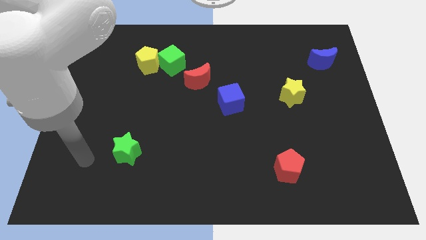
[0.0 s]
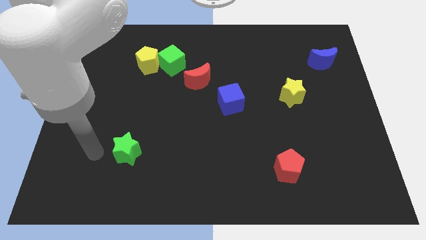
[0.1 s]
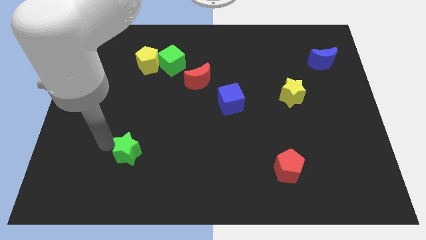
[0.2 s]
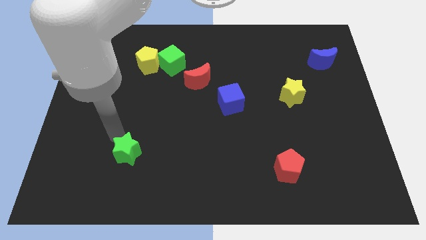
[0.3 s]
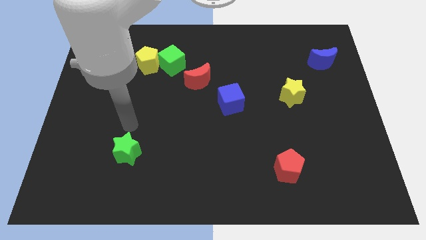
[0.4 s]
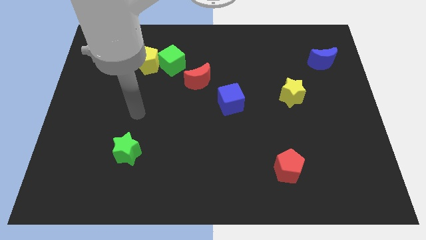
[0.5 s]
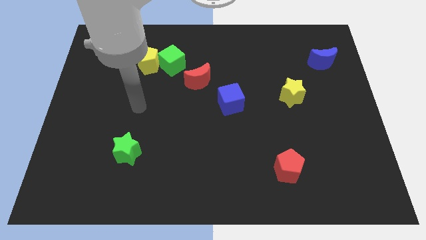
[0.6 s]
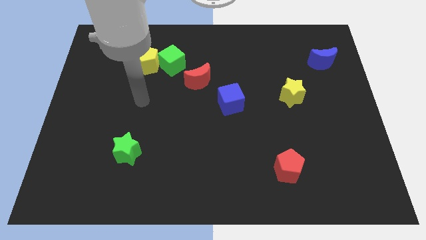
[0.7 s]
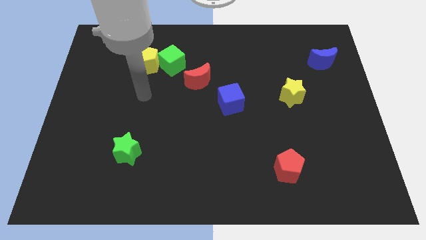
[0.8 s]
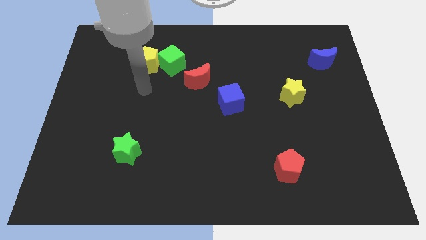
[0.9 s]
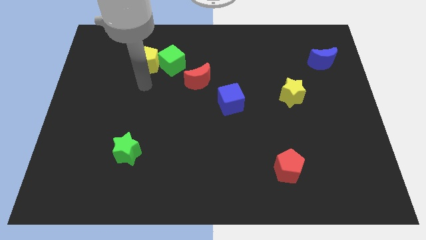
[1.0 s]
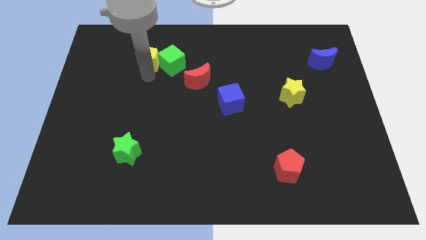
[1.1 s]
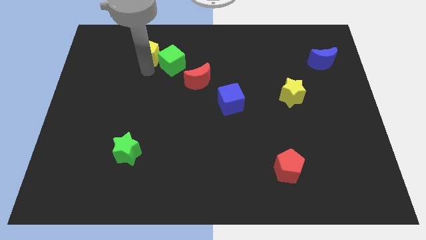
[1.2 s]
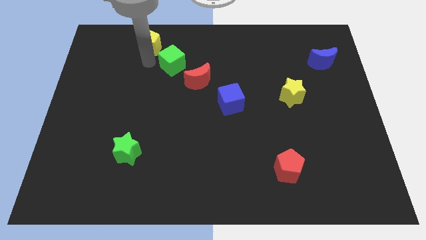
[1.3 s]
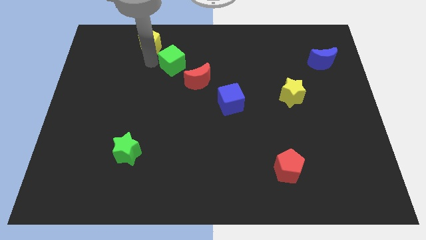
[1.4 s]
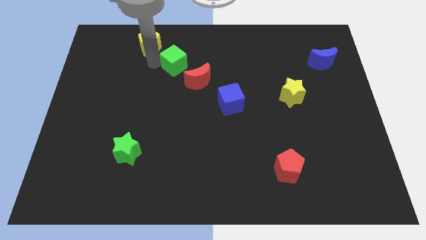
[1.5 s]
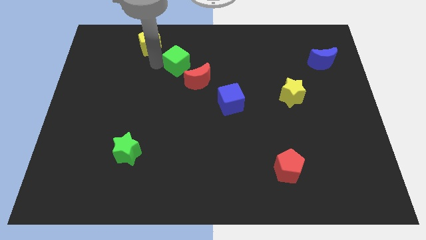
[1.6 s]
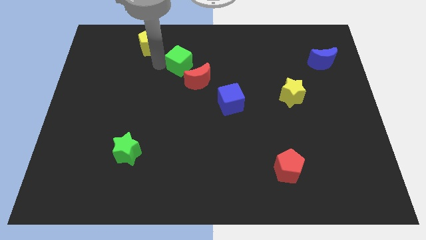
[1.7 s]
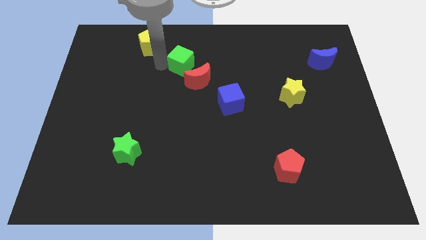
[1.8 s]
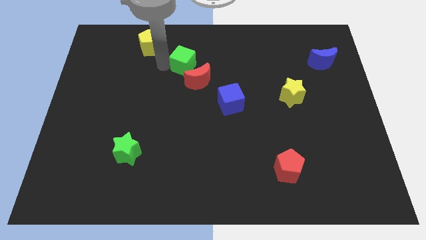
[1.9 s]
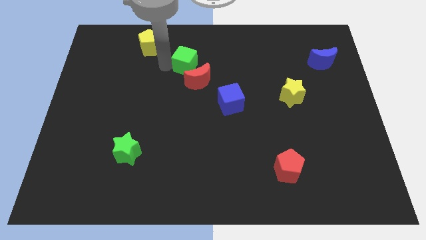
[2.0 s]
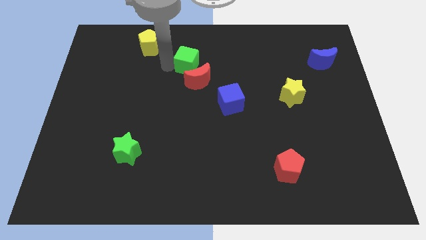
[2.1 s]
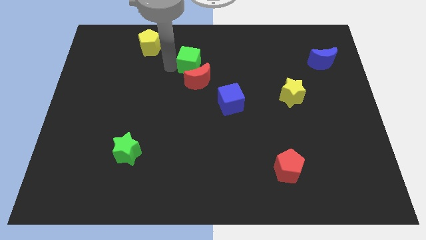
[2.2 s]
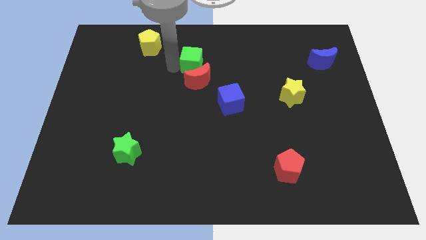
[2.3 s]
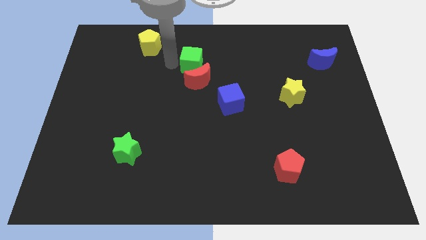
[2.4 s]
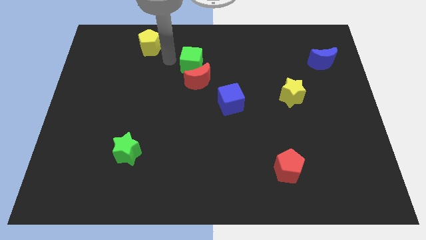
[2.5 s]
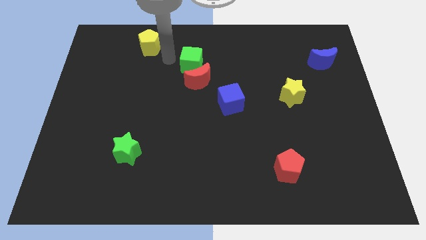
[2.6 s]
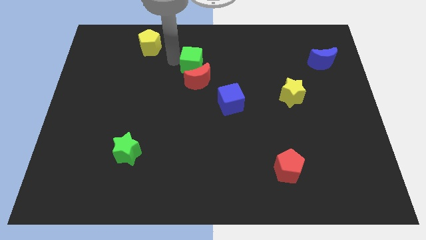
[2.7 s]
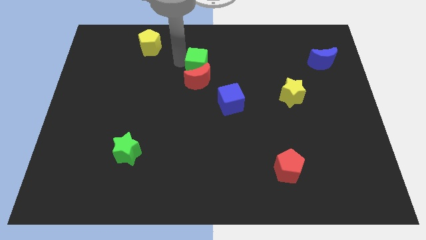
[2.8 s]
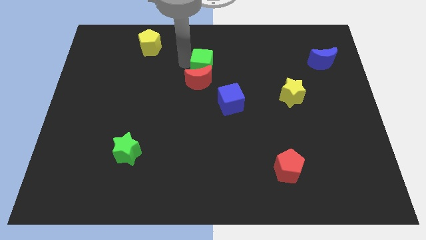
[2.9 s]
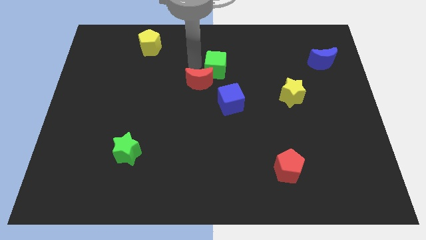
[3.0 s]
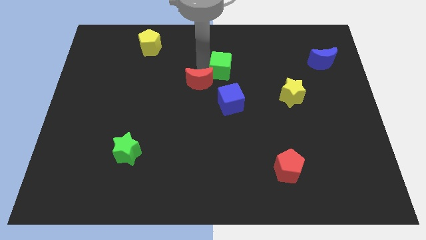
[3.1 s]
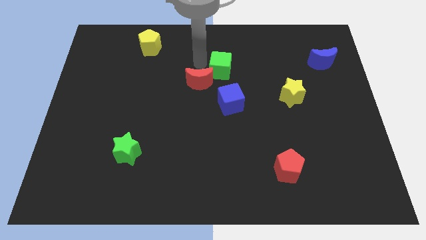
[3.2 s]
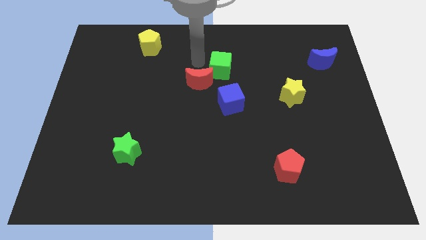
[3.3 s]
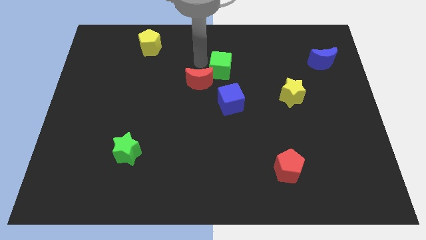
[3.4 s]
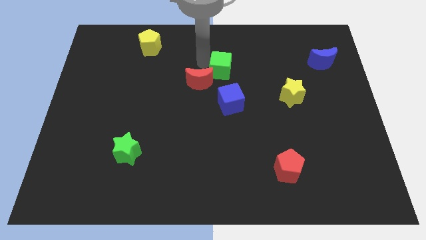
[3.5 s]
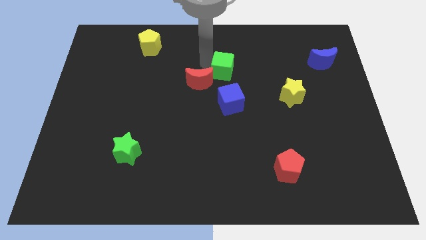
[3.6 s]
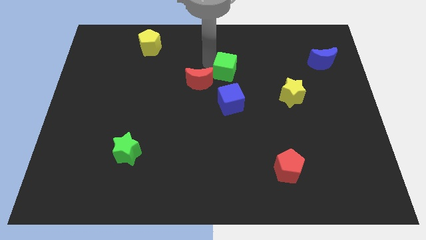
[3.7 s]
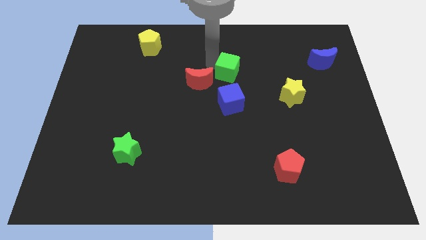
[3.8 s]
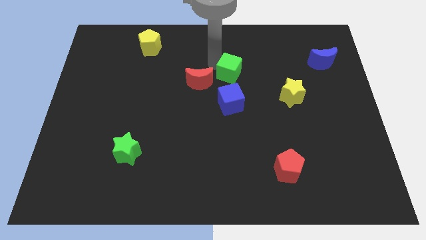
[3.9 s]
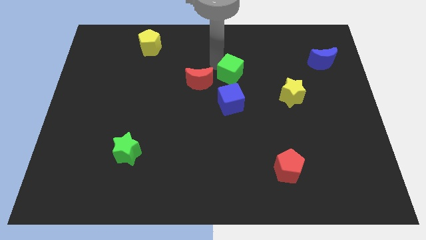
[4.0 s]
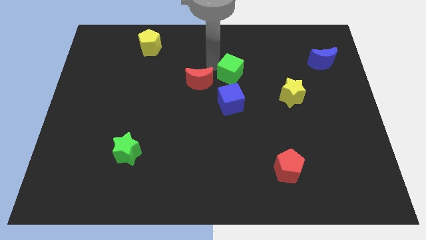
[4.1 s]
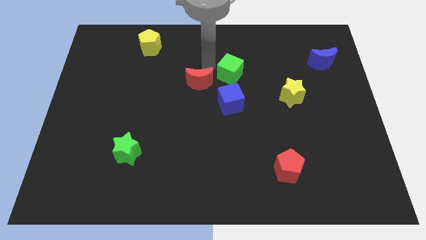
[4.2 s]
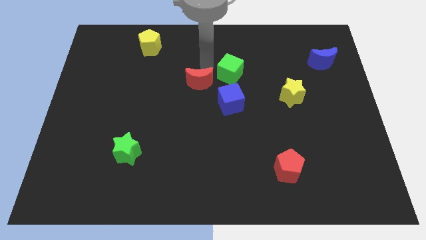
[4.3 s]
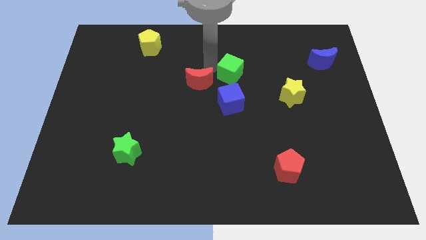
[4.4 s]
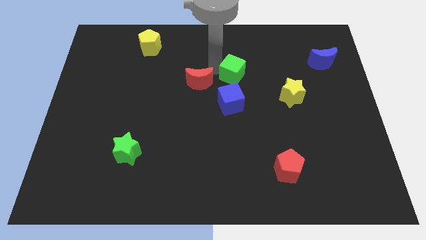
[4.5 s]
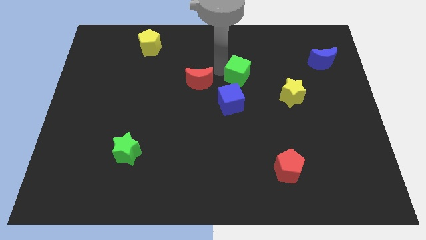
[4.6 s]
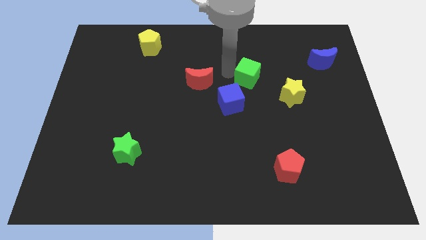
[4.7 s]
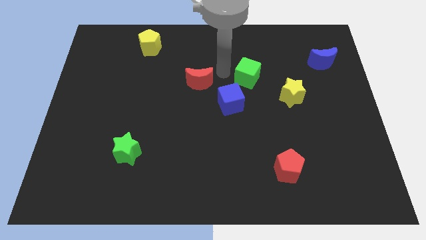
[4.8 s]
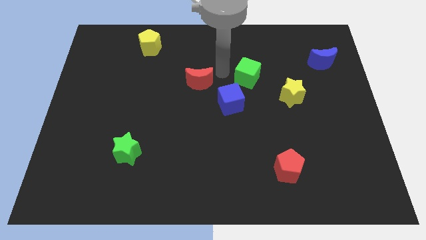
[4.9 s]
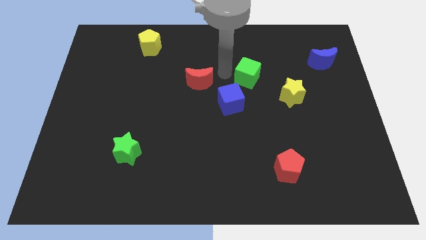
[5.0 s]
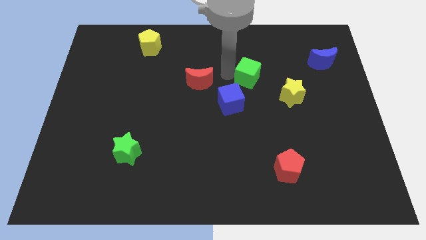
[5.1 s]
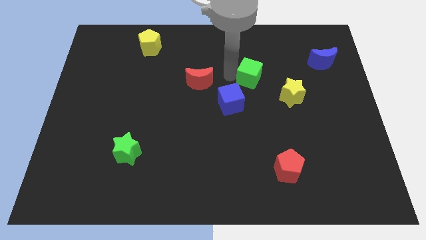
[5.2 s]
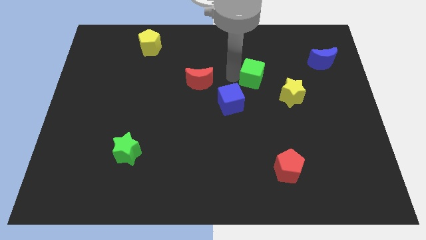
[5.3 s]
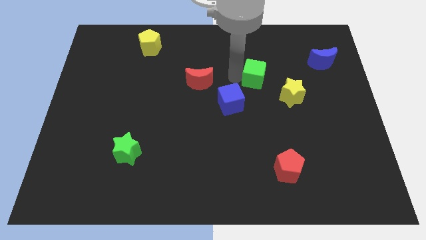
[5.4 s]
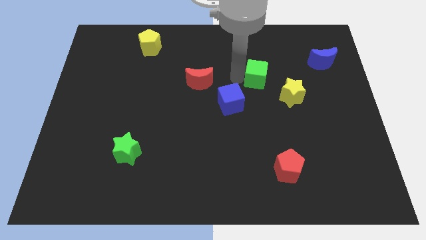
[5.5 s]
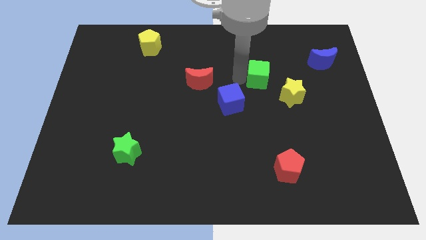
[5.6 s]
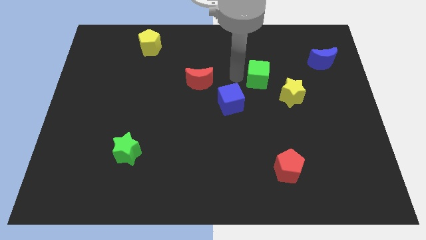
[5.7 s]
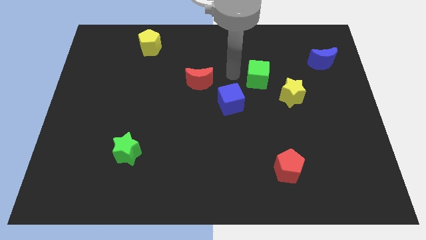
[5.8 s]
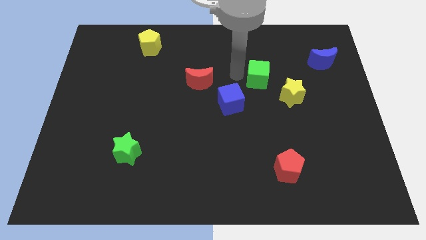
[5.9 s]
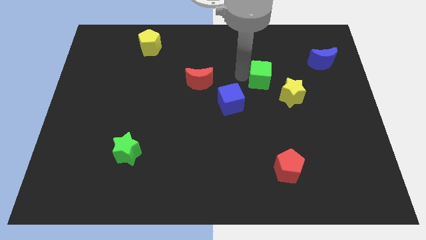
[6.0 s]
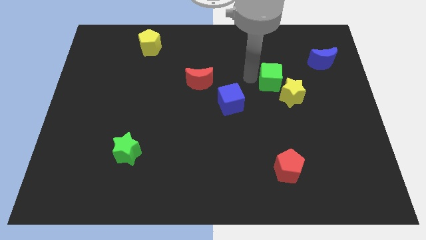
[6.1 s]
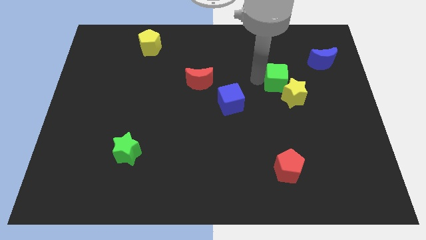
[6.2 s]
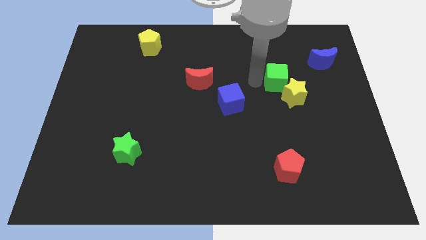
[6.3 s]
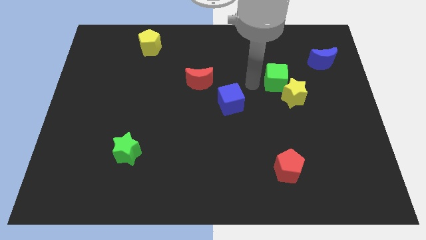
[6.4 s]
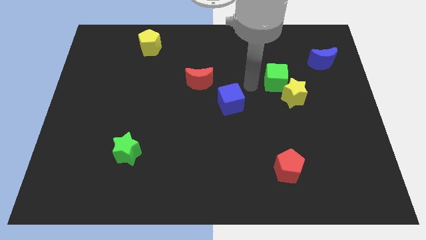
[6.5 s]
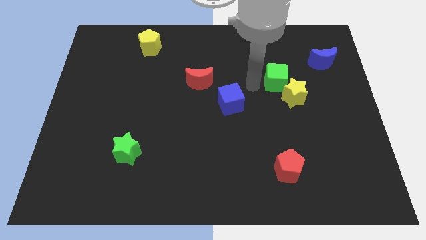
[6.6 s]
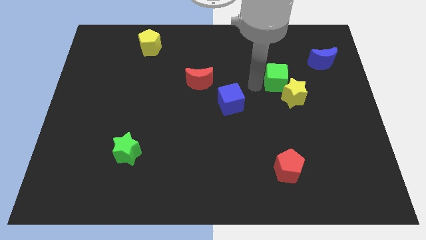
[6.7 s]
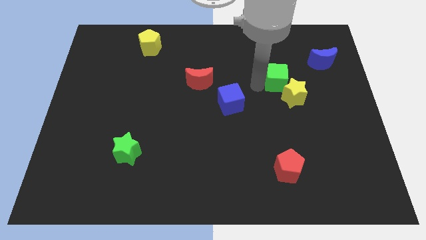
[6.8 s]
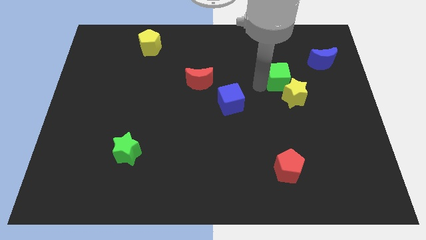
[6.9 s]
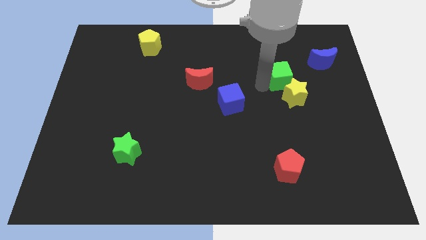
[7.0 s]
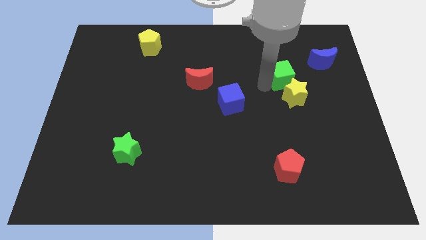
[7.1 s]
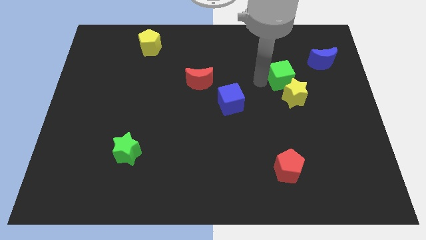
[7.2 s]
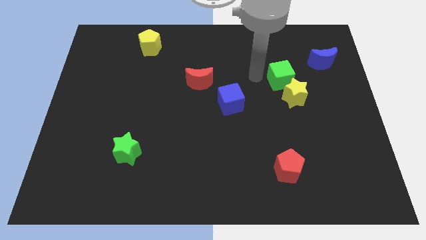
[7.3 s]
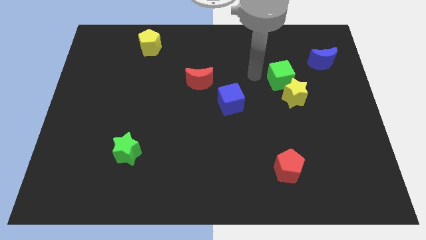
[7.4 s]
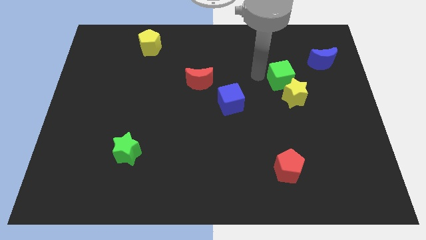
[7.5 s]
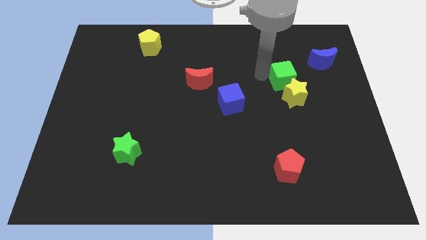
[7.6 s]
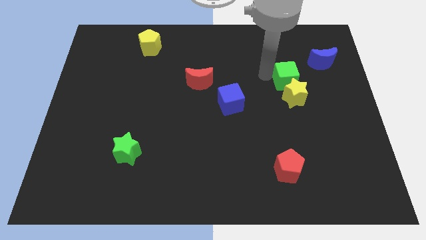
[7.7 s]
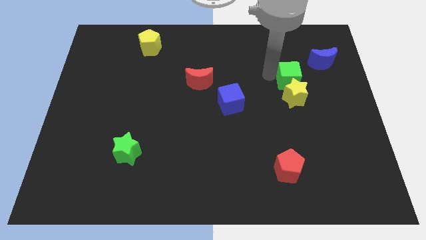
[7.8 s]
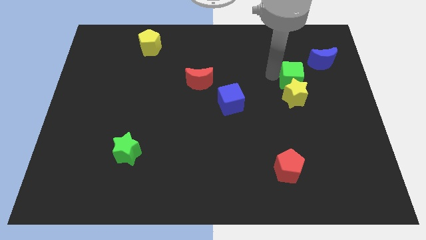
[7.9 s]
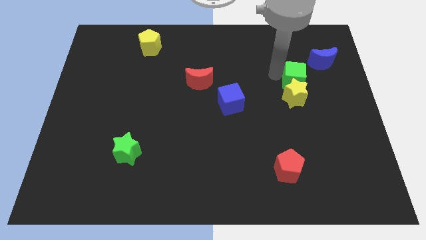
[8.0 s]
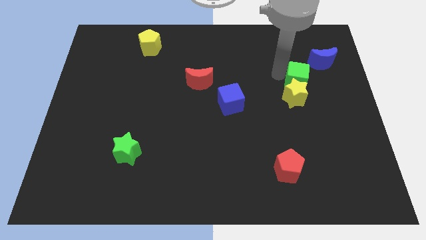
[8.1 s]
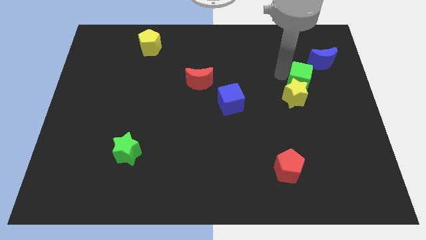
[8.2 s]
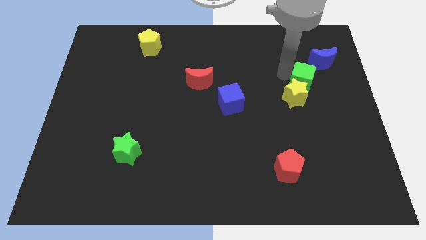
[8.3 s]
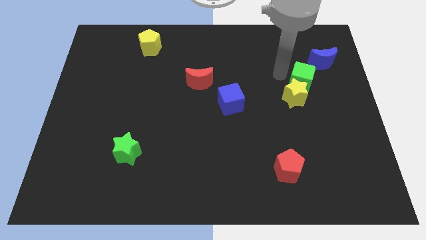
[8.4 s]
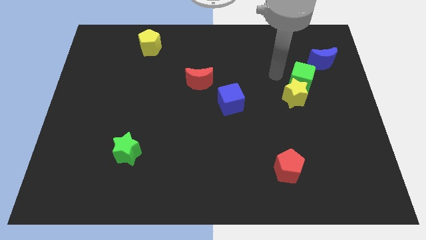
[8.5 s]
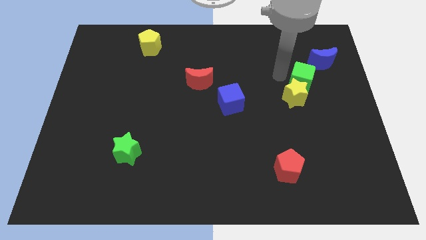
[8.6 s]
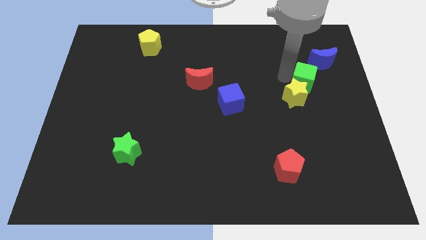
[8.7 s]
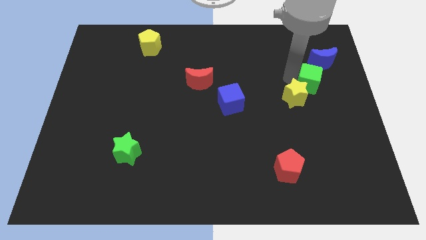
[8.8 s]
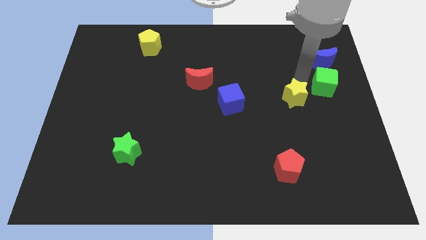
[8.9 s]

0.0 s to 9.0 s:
put the green cube to the right side of the board
